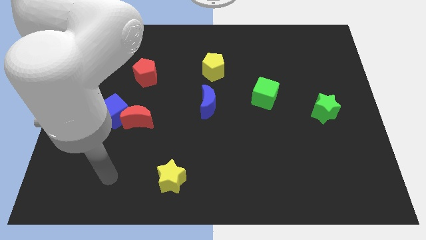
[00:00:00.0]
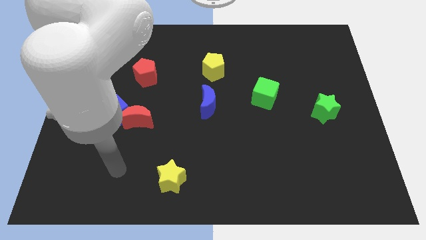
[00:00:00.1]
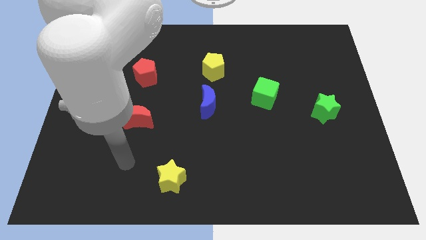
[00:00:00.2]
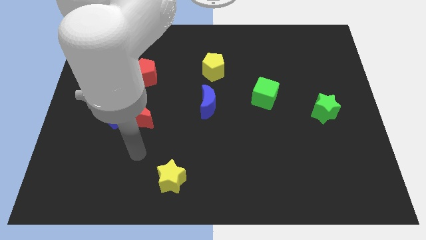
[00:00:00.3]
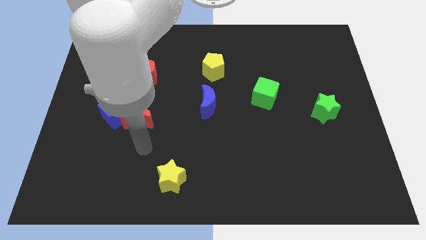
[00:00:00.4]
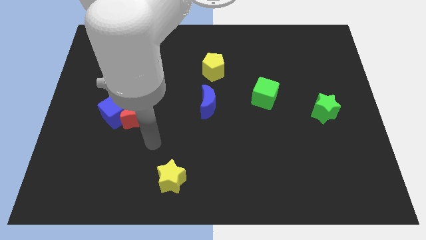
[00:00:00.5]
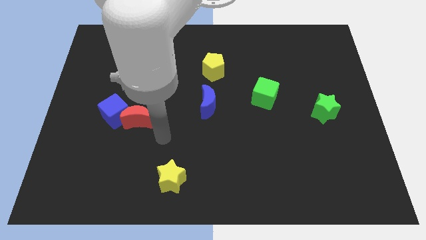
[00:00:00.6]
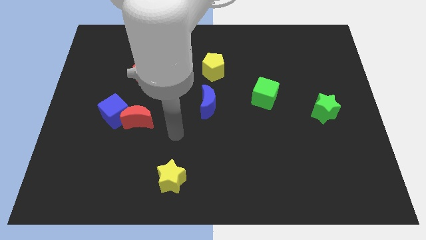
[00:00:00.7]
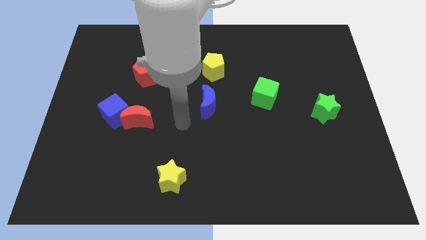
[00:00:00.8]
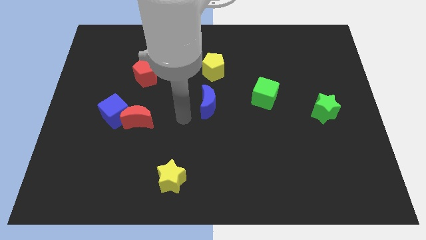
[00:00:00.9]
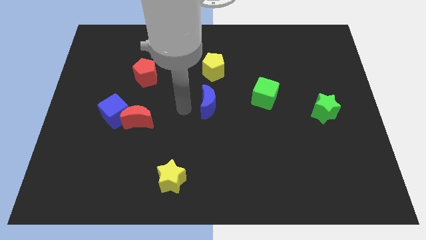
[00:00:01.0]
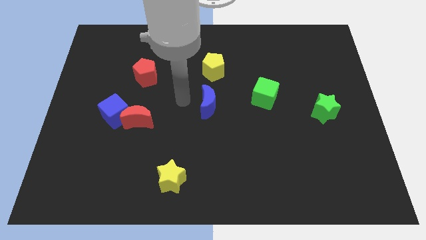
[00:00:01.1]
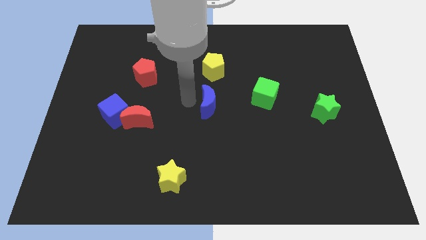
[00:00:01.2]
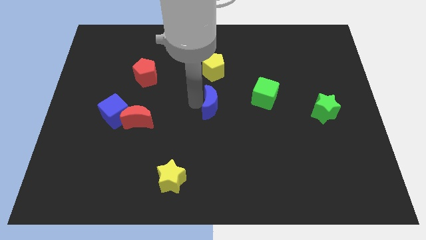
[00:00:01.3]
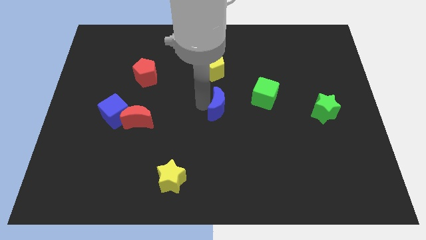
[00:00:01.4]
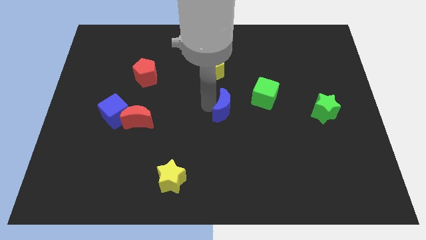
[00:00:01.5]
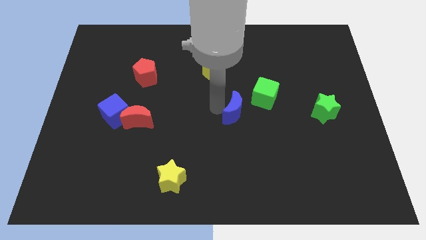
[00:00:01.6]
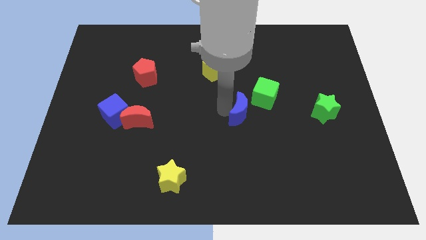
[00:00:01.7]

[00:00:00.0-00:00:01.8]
push the blue moon a bit right

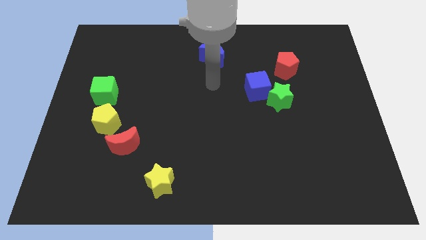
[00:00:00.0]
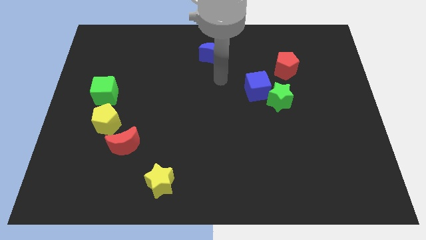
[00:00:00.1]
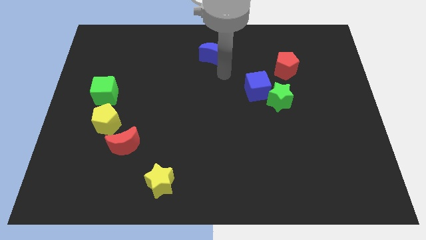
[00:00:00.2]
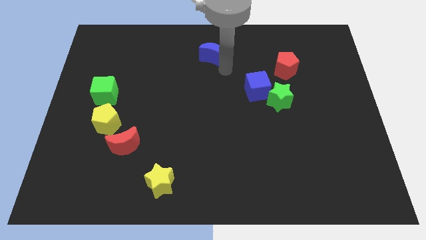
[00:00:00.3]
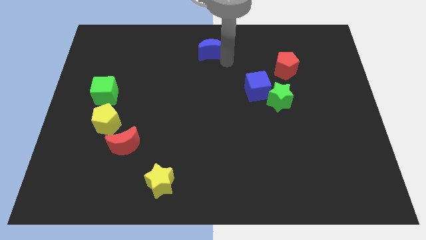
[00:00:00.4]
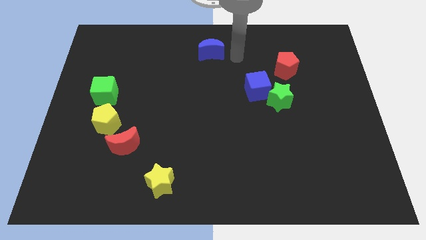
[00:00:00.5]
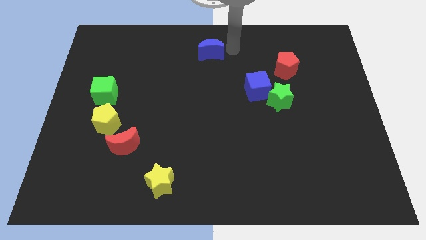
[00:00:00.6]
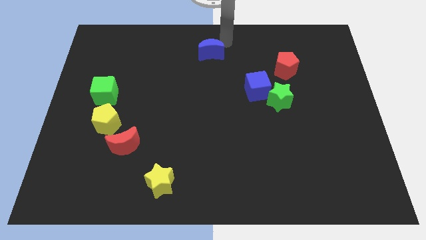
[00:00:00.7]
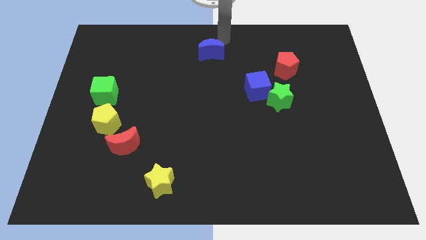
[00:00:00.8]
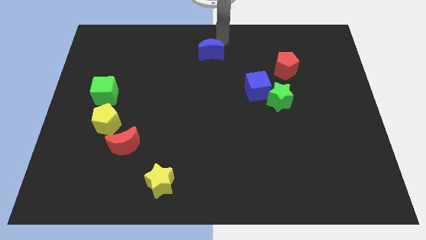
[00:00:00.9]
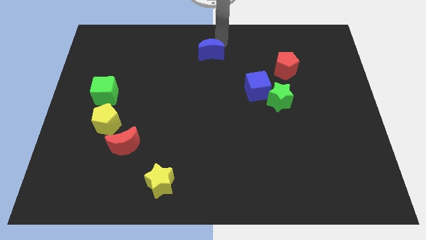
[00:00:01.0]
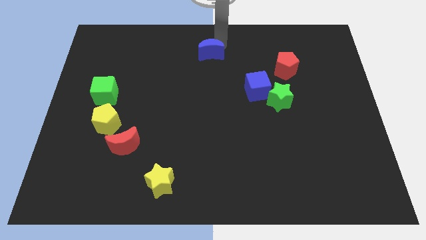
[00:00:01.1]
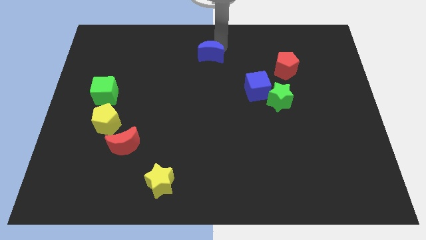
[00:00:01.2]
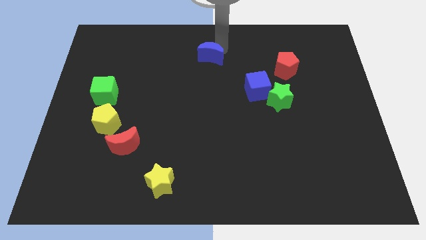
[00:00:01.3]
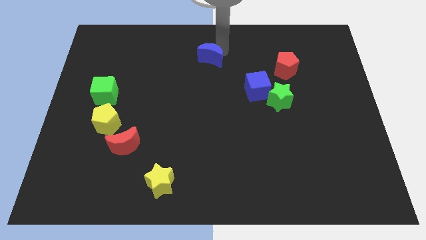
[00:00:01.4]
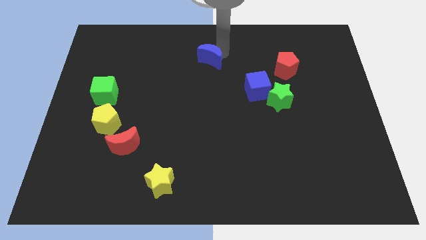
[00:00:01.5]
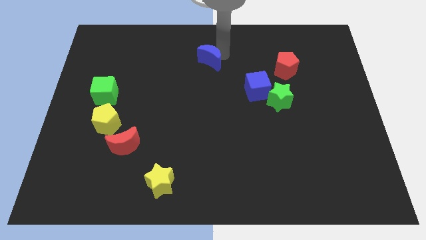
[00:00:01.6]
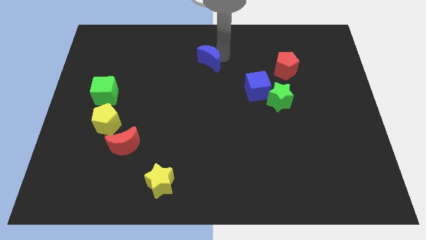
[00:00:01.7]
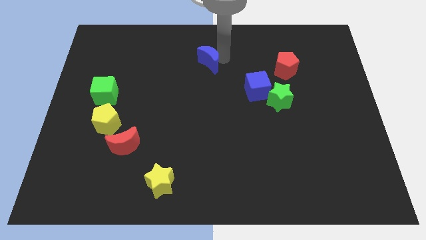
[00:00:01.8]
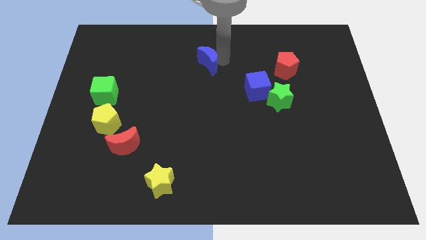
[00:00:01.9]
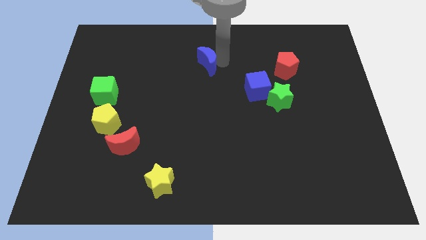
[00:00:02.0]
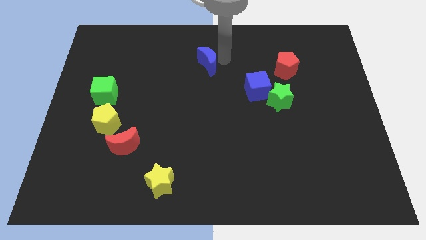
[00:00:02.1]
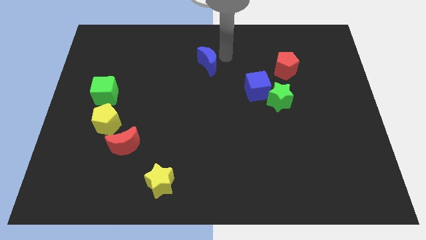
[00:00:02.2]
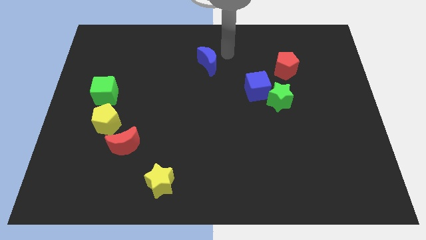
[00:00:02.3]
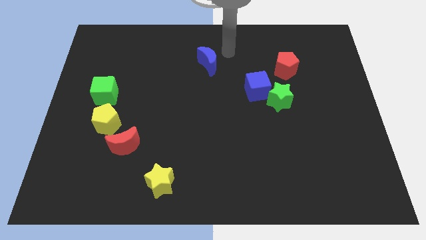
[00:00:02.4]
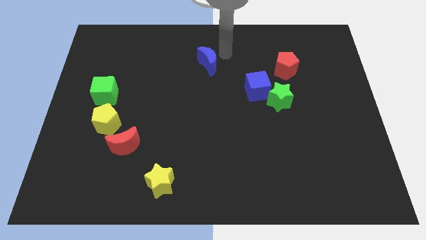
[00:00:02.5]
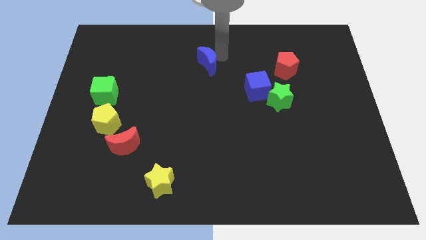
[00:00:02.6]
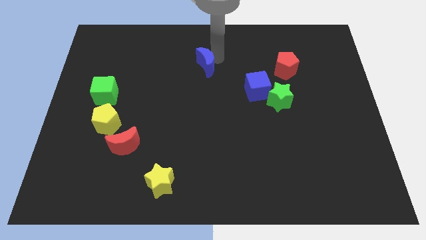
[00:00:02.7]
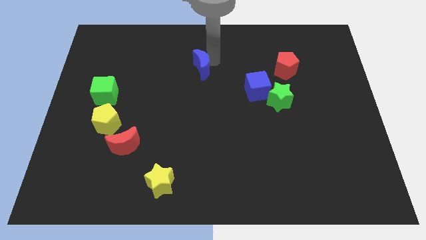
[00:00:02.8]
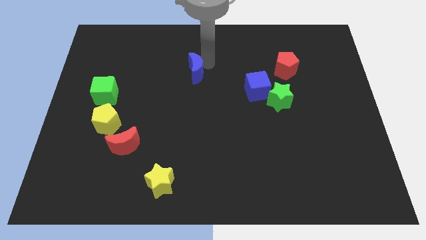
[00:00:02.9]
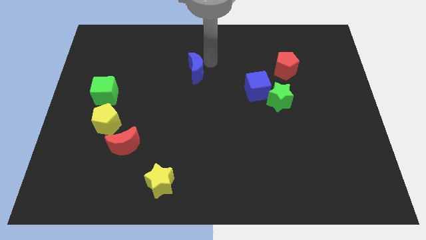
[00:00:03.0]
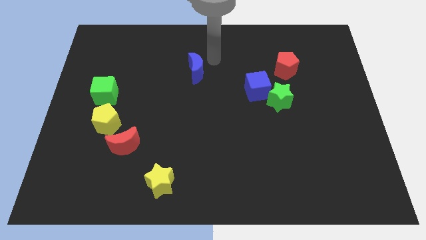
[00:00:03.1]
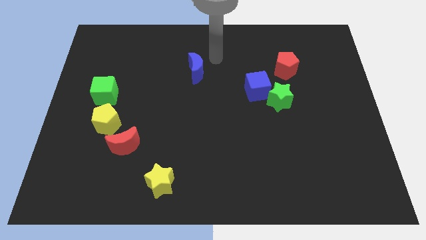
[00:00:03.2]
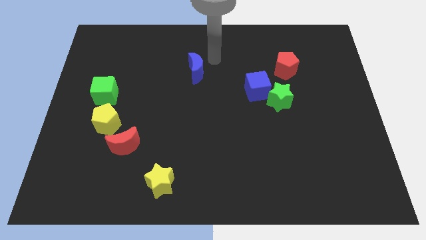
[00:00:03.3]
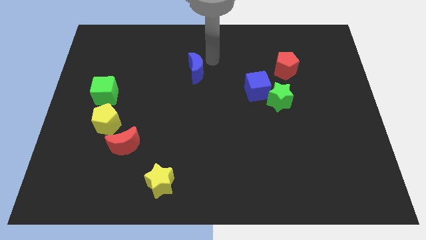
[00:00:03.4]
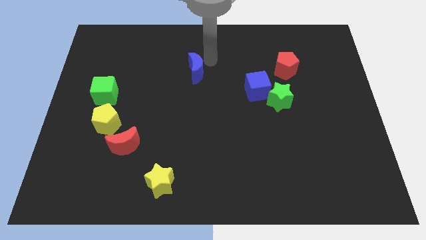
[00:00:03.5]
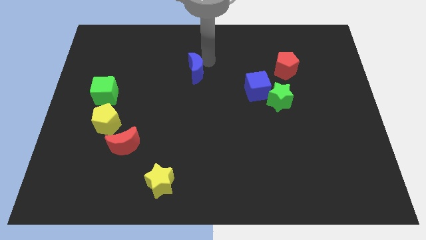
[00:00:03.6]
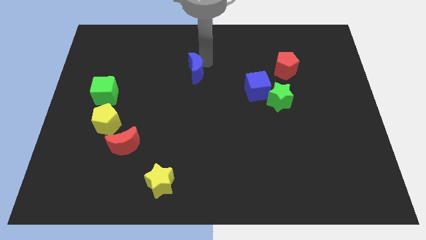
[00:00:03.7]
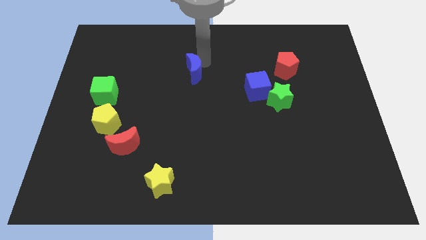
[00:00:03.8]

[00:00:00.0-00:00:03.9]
slightly move the blue moon downwards and then to the left

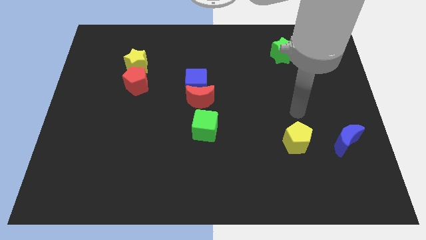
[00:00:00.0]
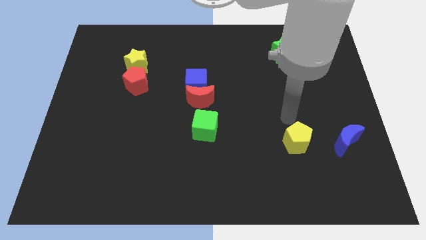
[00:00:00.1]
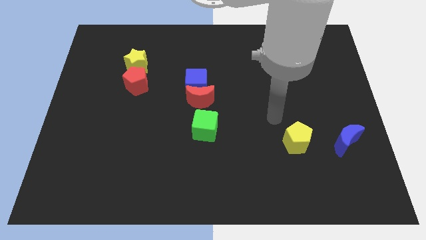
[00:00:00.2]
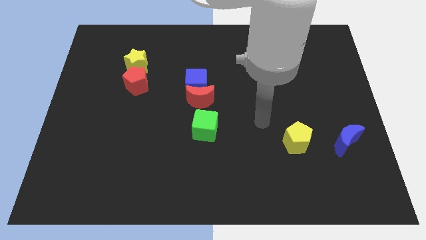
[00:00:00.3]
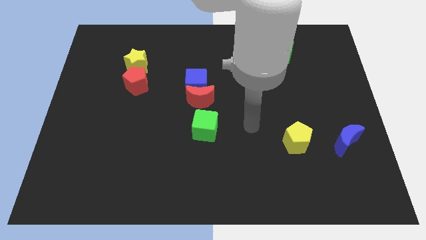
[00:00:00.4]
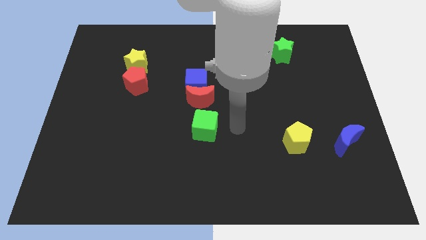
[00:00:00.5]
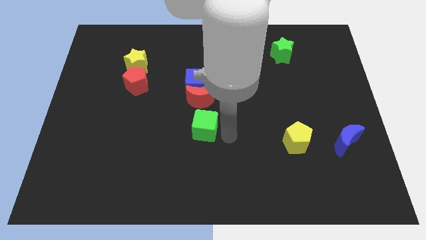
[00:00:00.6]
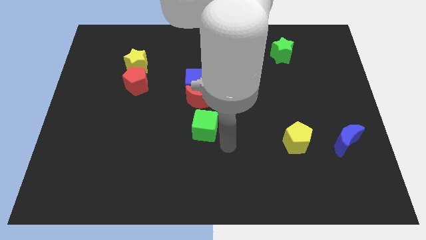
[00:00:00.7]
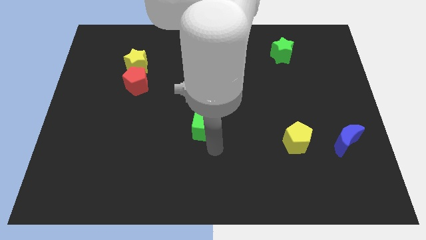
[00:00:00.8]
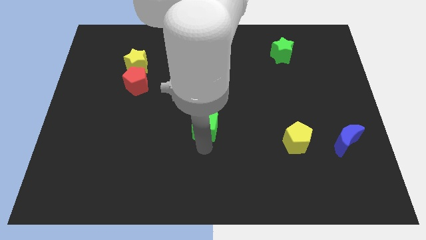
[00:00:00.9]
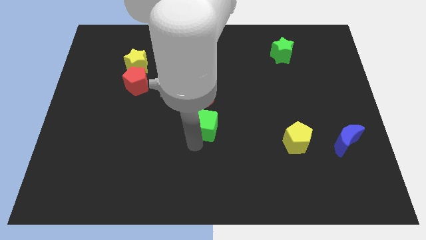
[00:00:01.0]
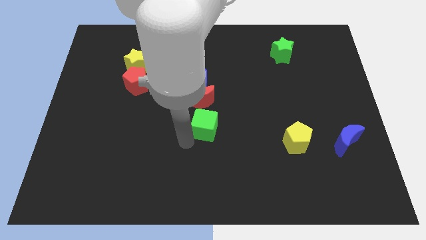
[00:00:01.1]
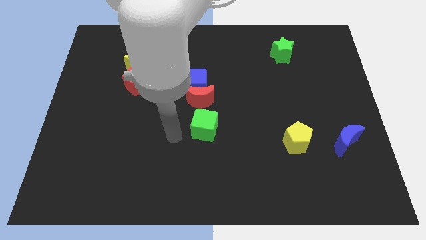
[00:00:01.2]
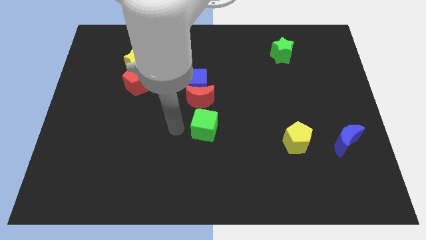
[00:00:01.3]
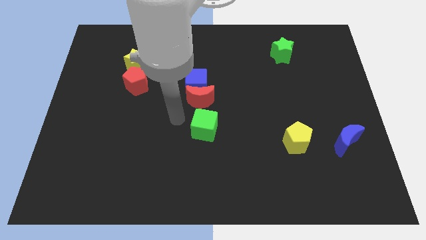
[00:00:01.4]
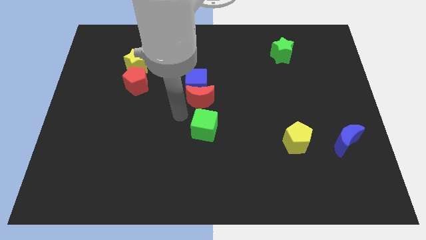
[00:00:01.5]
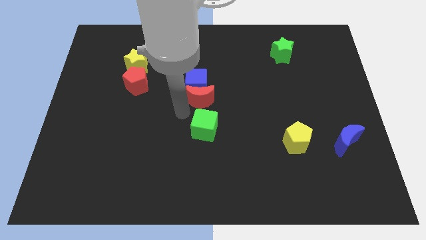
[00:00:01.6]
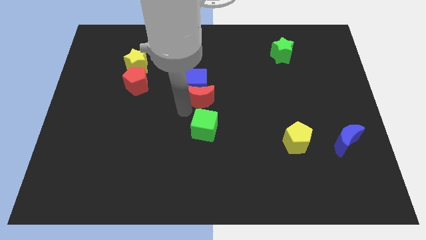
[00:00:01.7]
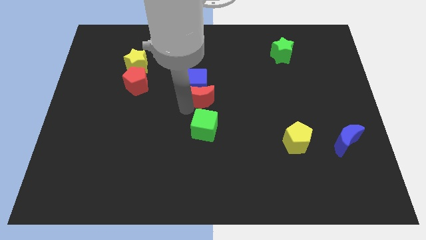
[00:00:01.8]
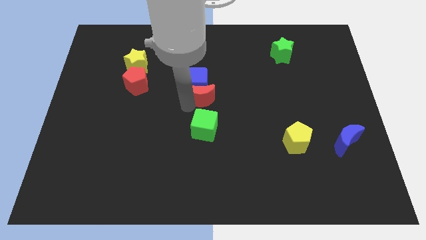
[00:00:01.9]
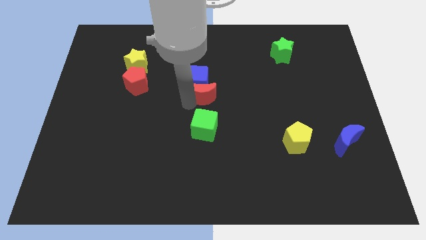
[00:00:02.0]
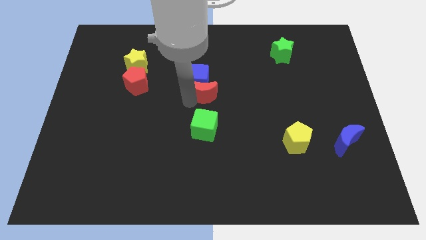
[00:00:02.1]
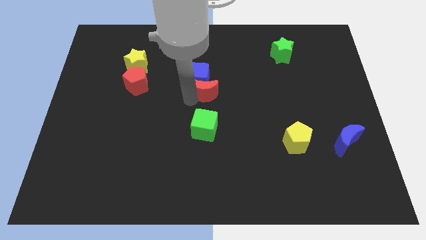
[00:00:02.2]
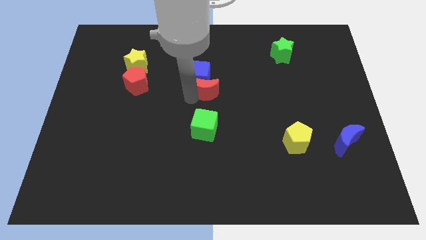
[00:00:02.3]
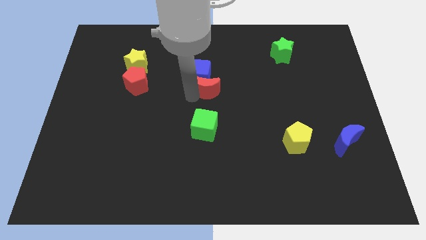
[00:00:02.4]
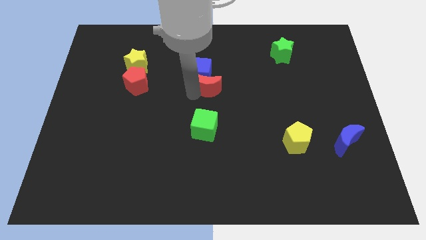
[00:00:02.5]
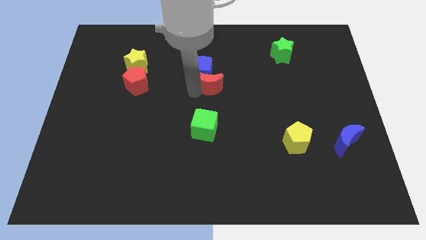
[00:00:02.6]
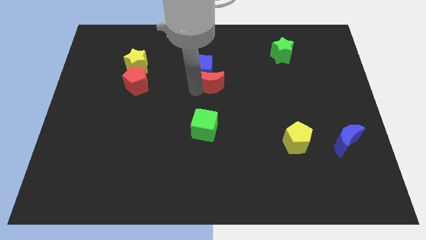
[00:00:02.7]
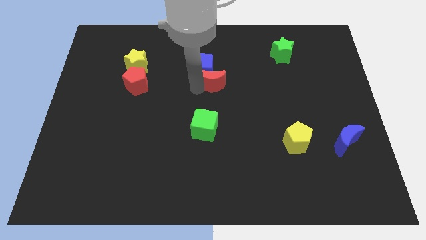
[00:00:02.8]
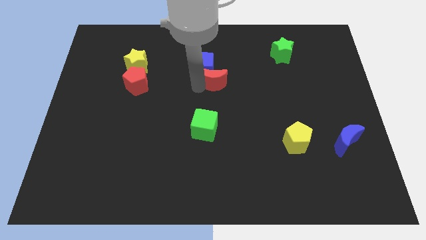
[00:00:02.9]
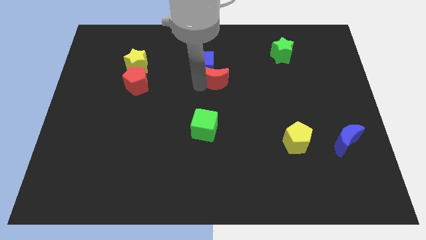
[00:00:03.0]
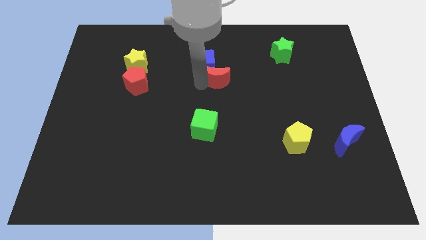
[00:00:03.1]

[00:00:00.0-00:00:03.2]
slide the red moon upwards and to the right a bit
